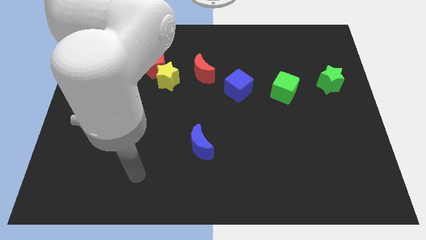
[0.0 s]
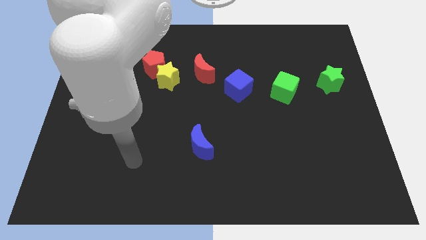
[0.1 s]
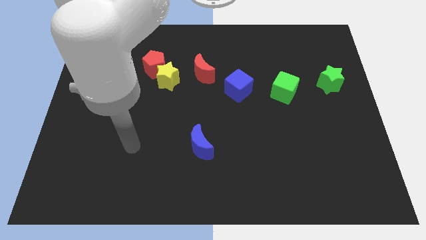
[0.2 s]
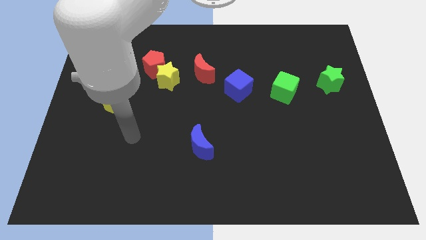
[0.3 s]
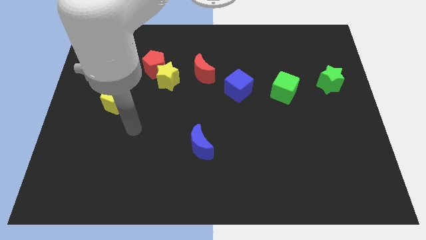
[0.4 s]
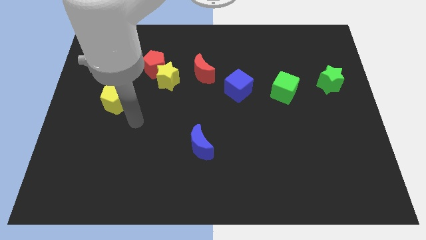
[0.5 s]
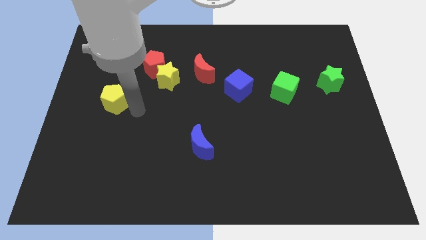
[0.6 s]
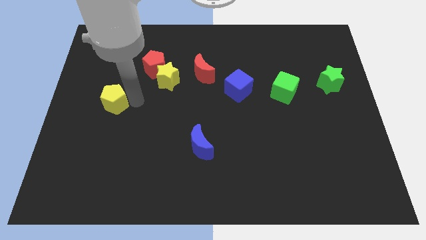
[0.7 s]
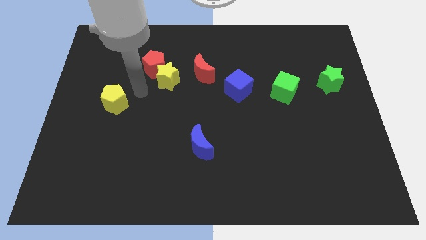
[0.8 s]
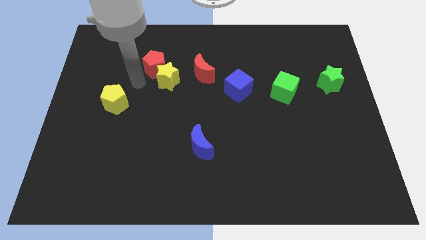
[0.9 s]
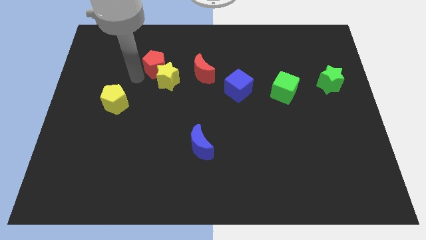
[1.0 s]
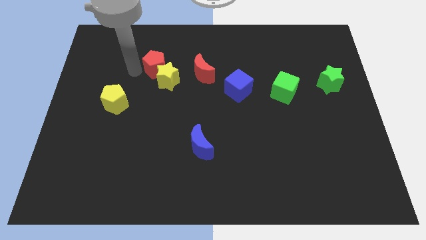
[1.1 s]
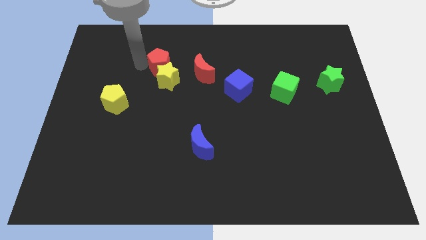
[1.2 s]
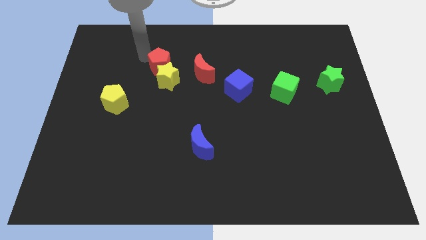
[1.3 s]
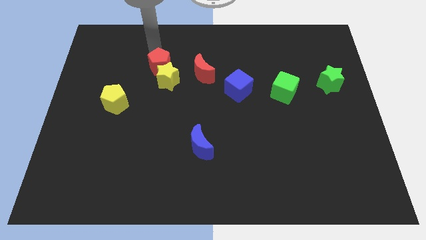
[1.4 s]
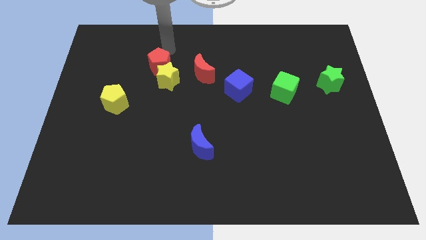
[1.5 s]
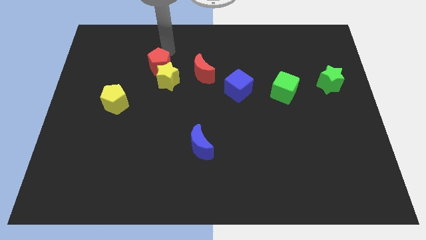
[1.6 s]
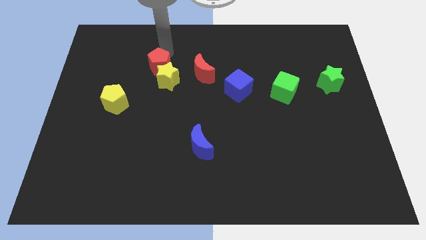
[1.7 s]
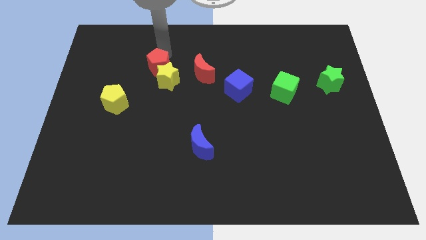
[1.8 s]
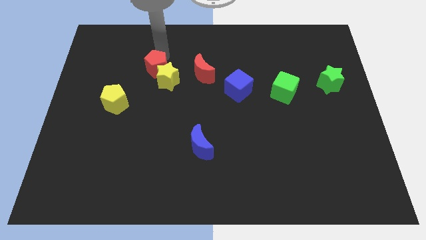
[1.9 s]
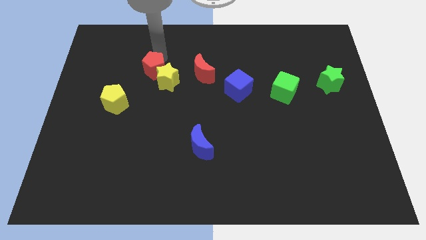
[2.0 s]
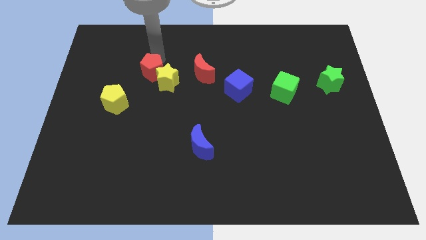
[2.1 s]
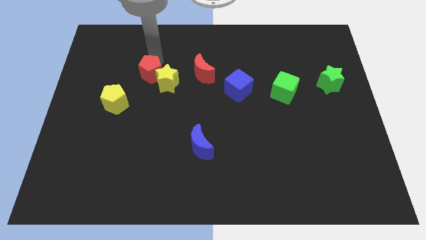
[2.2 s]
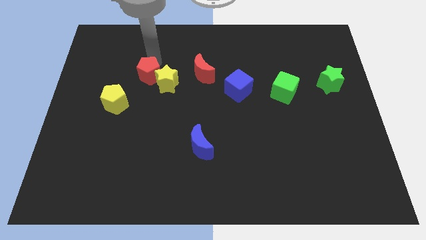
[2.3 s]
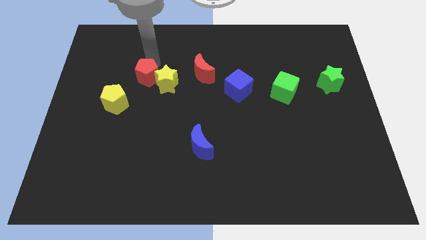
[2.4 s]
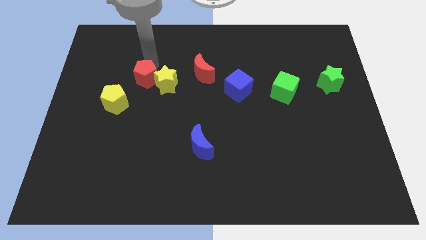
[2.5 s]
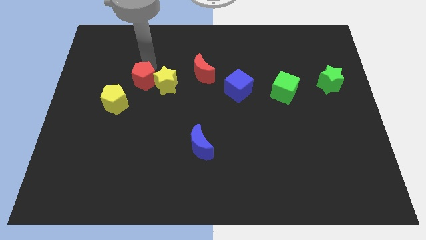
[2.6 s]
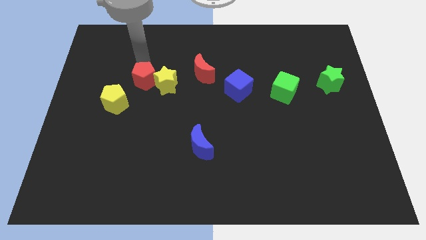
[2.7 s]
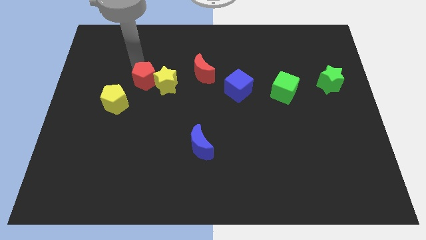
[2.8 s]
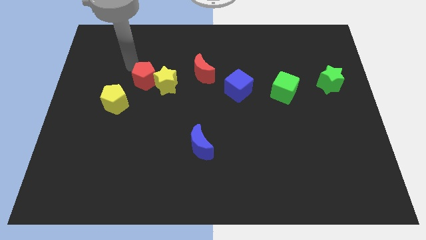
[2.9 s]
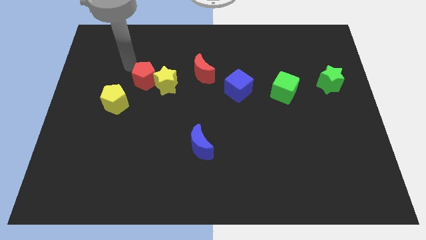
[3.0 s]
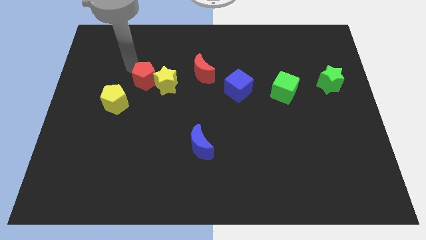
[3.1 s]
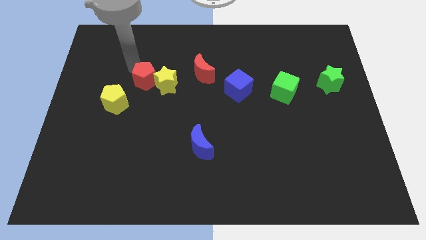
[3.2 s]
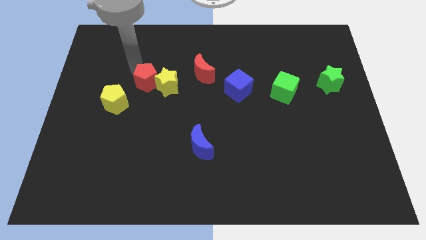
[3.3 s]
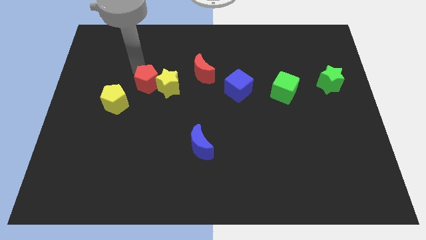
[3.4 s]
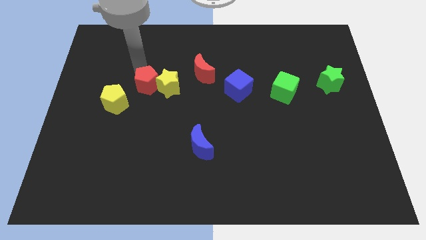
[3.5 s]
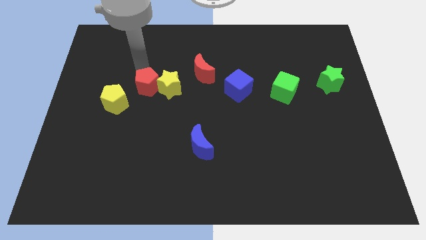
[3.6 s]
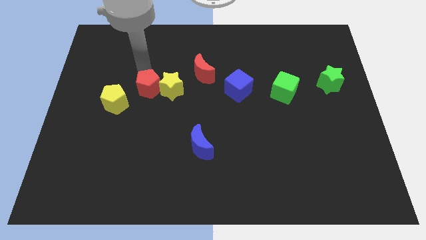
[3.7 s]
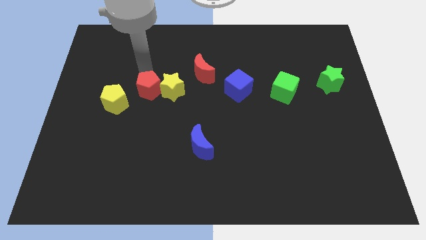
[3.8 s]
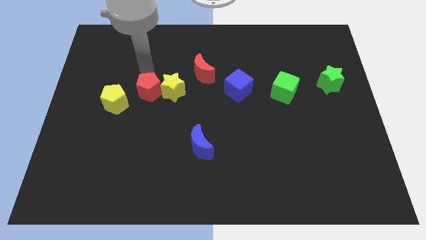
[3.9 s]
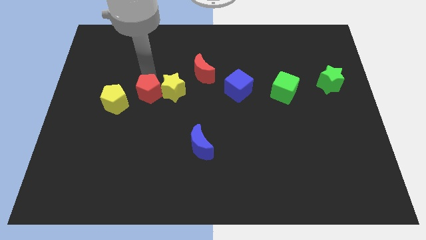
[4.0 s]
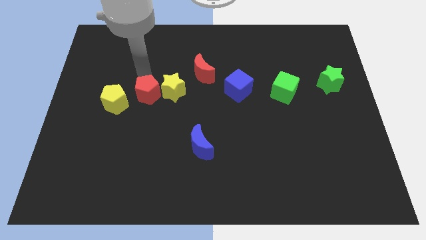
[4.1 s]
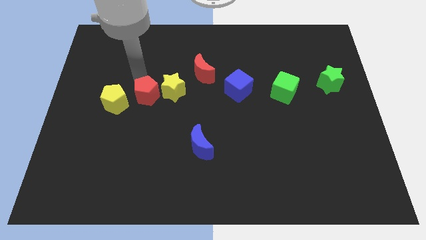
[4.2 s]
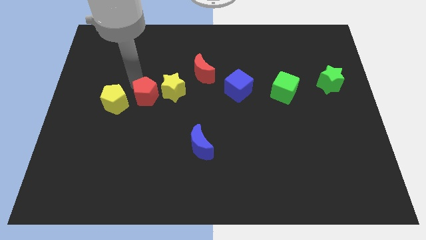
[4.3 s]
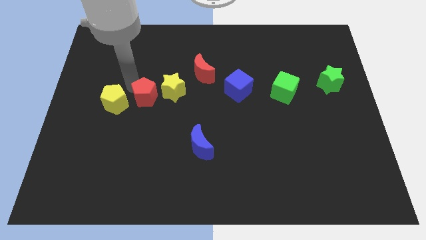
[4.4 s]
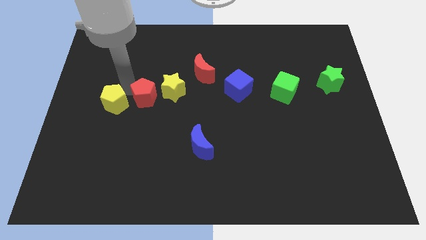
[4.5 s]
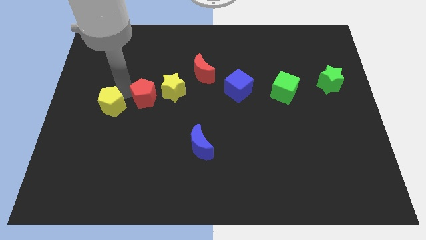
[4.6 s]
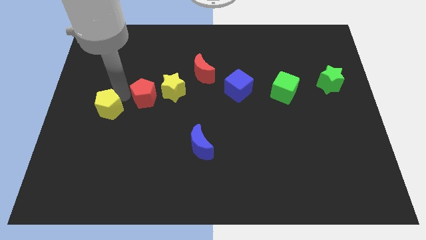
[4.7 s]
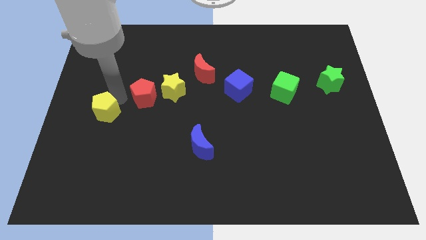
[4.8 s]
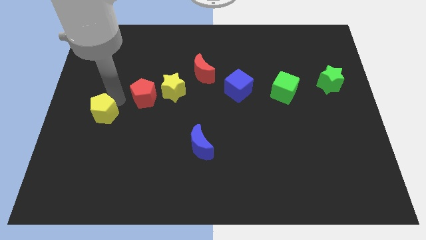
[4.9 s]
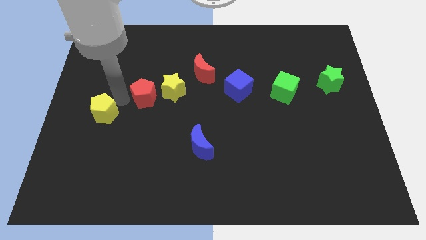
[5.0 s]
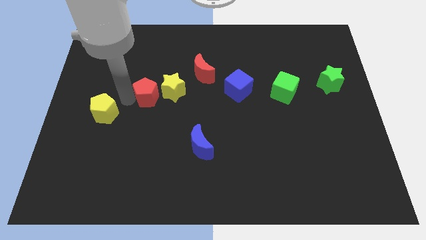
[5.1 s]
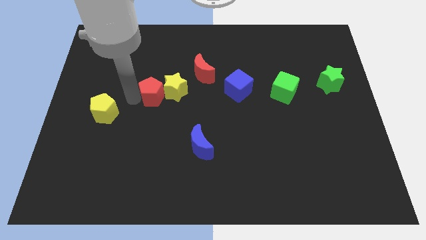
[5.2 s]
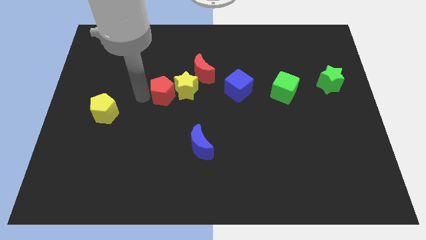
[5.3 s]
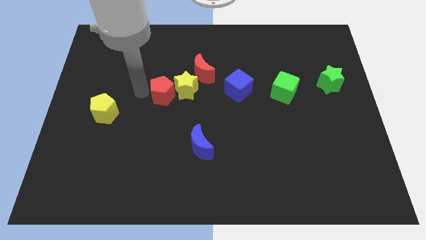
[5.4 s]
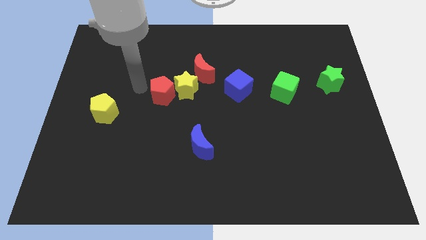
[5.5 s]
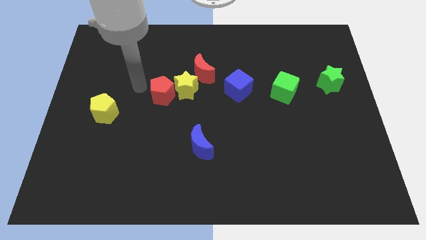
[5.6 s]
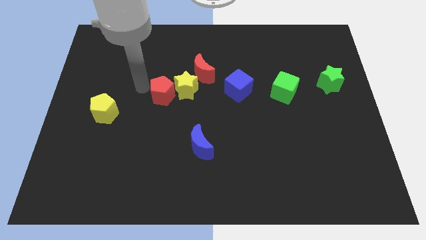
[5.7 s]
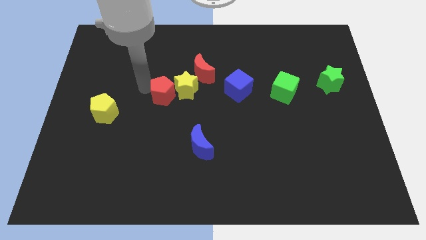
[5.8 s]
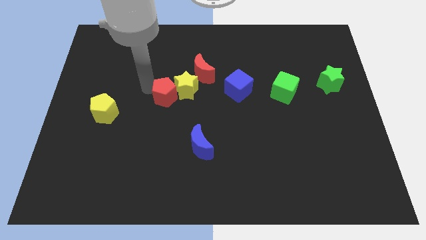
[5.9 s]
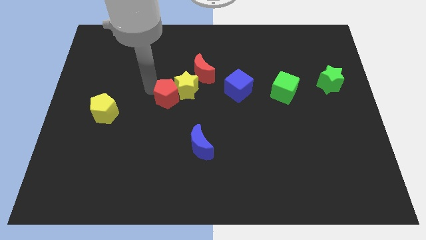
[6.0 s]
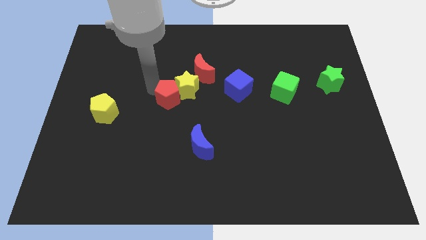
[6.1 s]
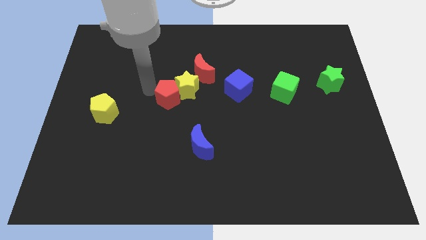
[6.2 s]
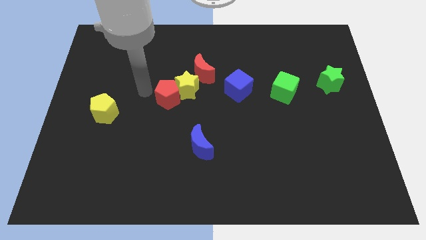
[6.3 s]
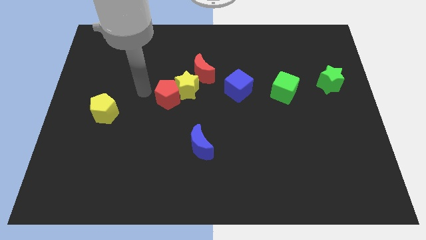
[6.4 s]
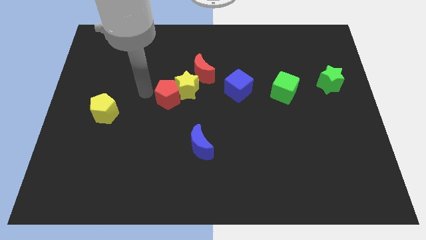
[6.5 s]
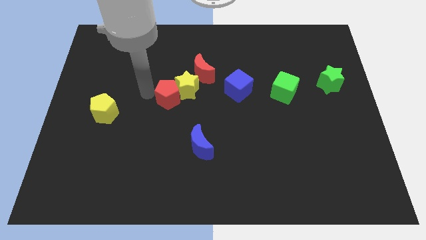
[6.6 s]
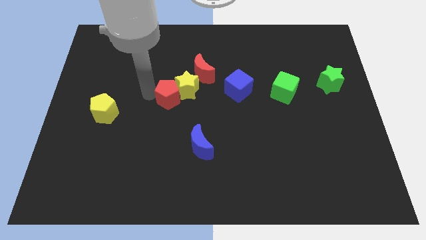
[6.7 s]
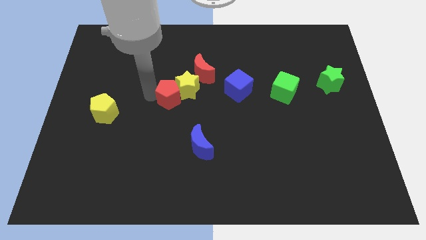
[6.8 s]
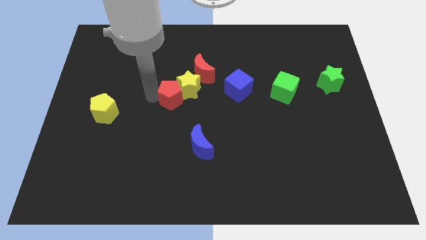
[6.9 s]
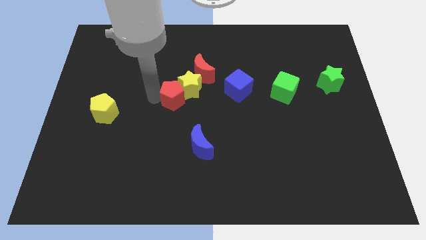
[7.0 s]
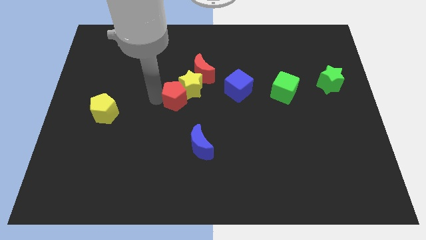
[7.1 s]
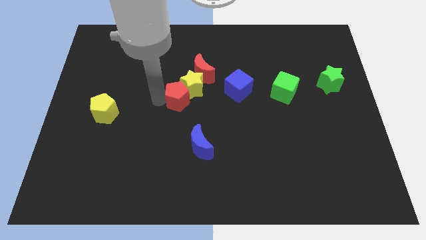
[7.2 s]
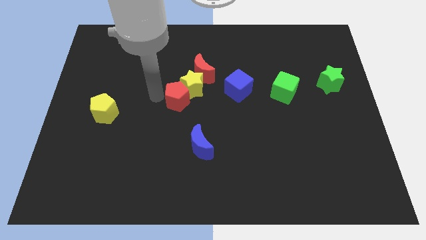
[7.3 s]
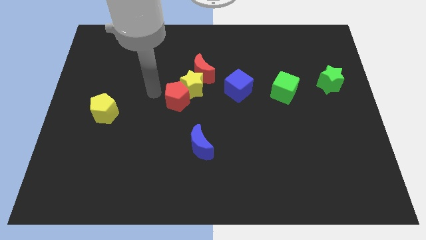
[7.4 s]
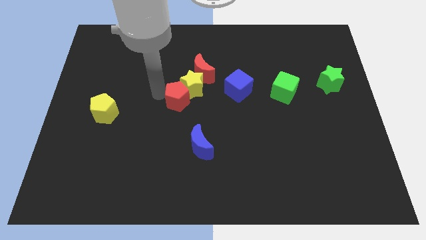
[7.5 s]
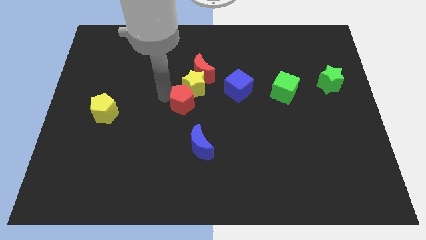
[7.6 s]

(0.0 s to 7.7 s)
slide the red pentagon above the blue moon
